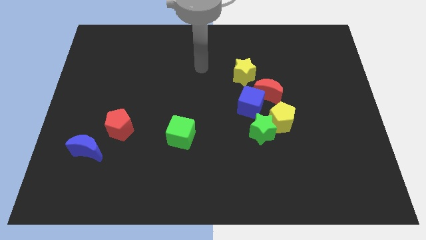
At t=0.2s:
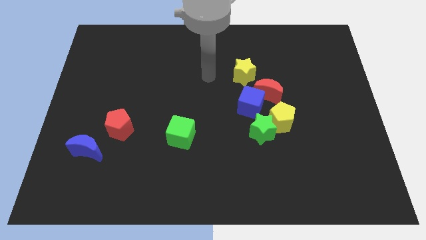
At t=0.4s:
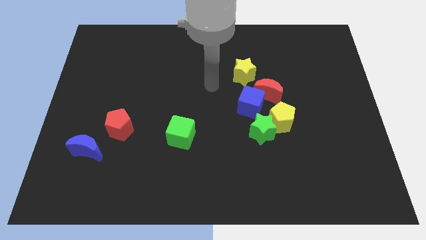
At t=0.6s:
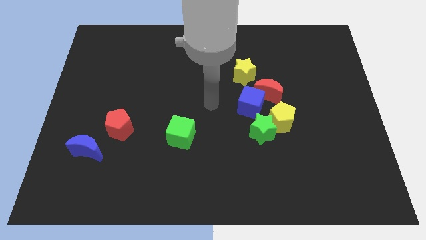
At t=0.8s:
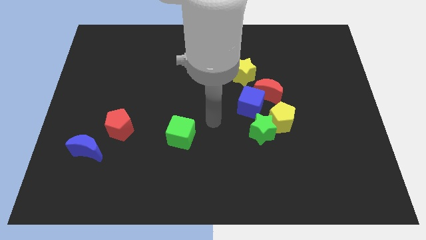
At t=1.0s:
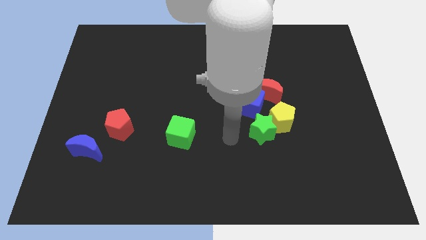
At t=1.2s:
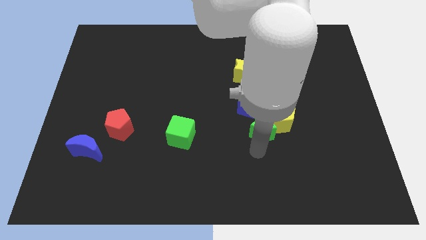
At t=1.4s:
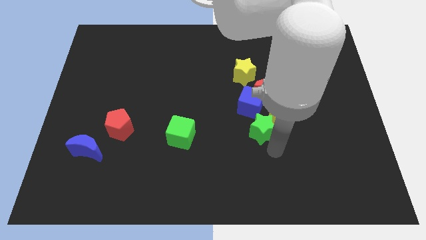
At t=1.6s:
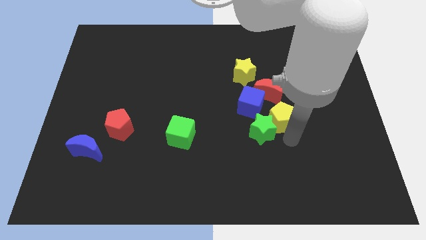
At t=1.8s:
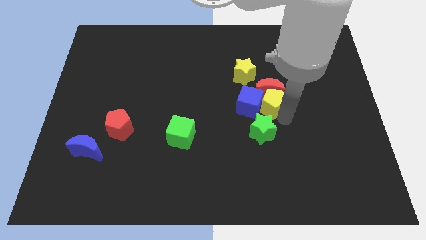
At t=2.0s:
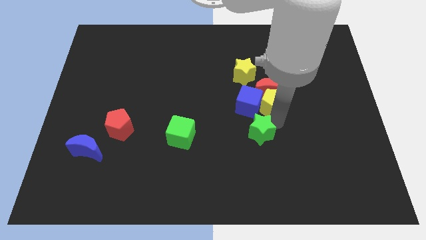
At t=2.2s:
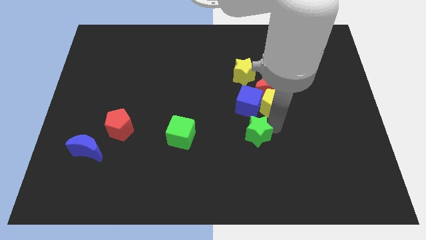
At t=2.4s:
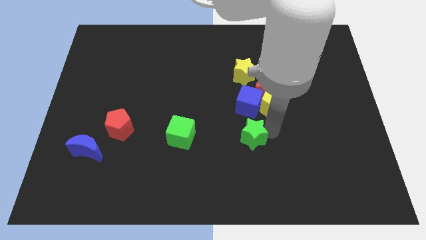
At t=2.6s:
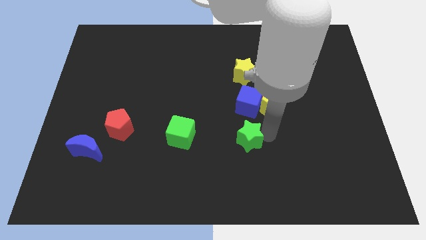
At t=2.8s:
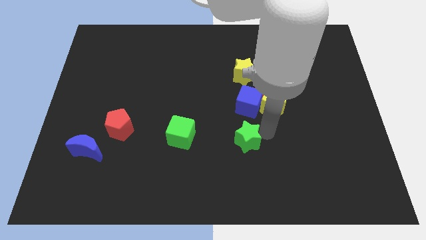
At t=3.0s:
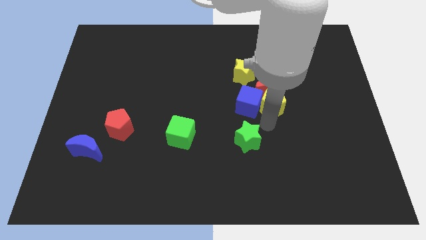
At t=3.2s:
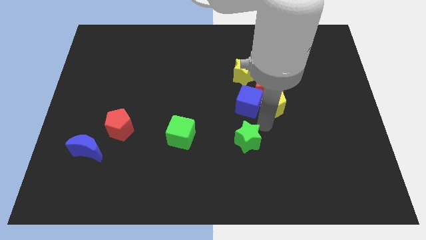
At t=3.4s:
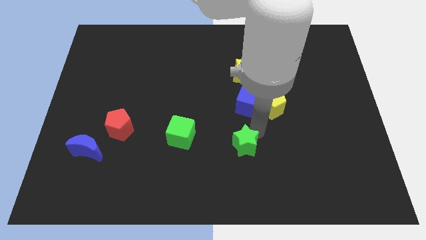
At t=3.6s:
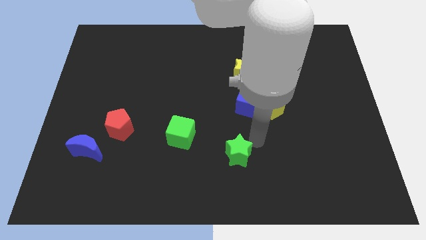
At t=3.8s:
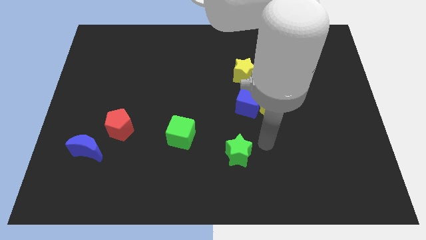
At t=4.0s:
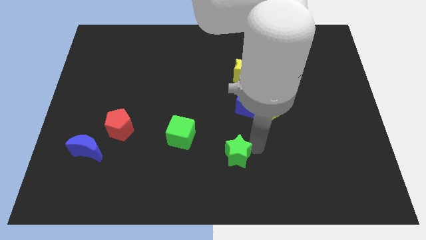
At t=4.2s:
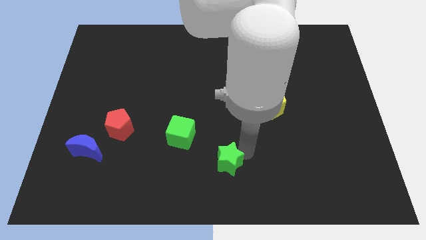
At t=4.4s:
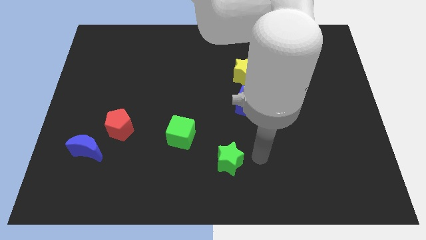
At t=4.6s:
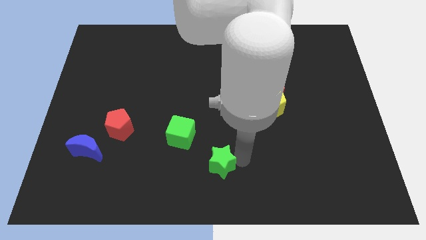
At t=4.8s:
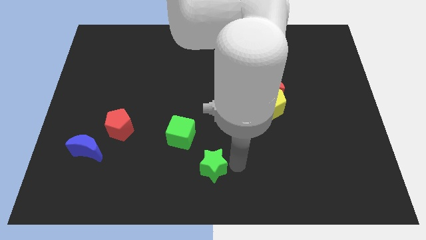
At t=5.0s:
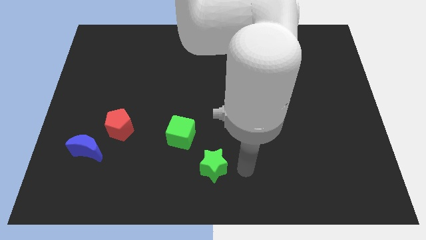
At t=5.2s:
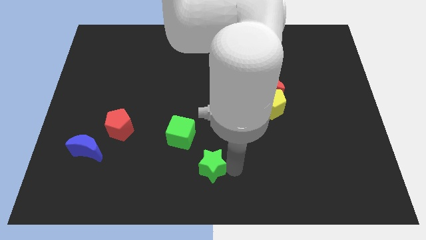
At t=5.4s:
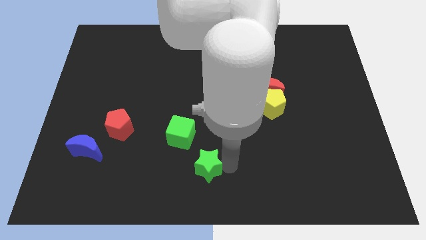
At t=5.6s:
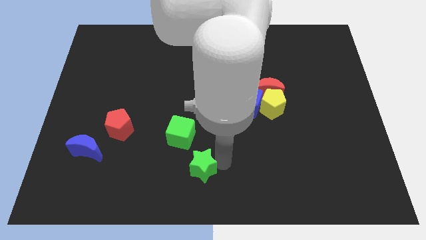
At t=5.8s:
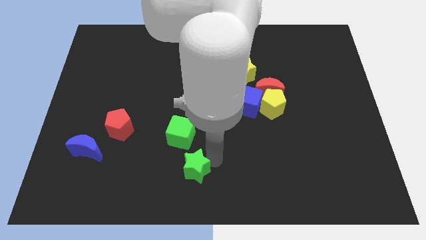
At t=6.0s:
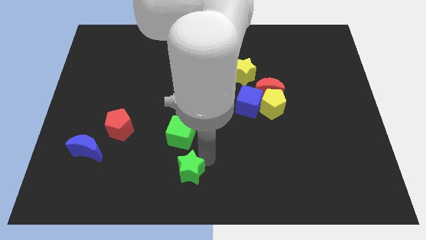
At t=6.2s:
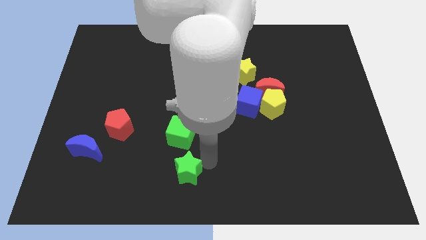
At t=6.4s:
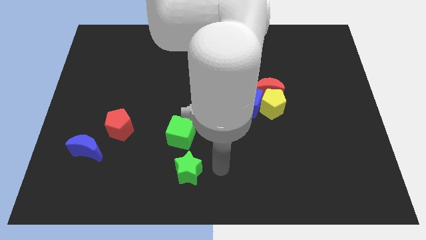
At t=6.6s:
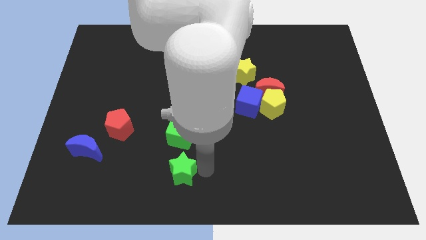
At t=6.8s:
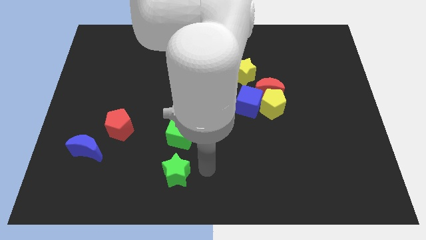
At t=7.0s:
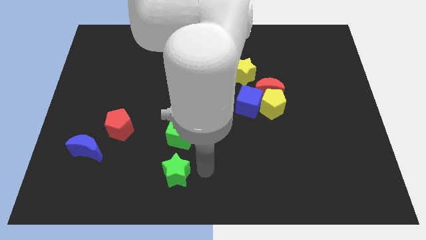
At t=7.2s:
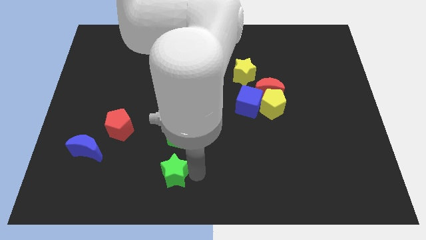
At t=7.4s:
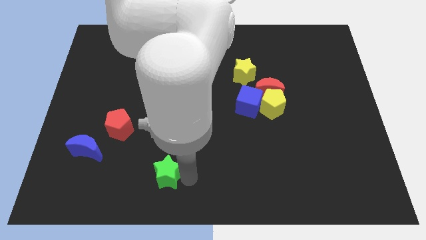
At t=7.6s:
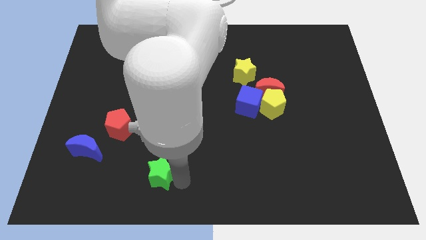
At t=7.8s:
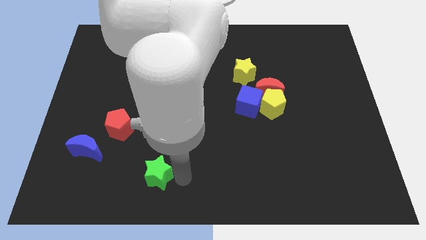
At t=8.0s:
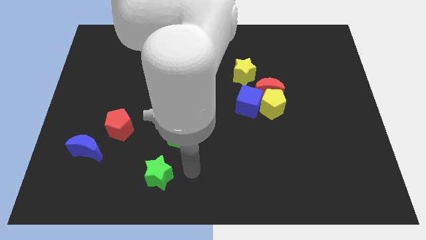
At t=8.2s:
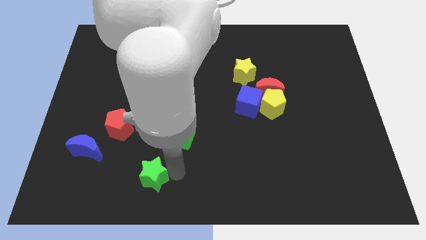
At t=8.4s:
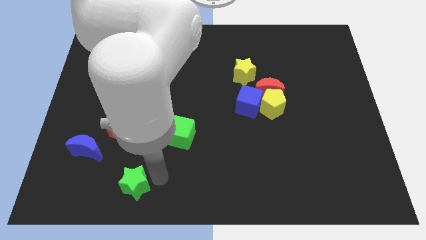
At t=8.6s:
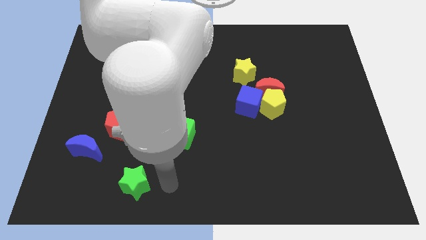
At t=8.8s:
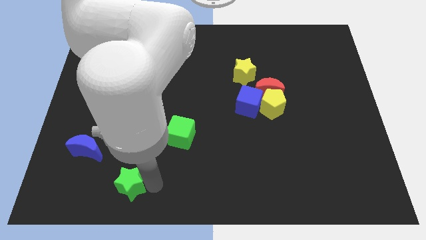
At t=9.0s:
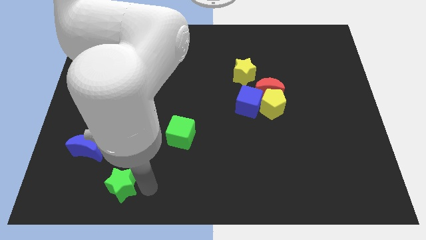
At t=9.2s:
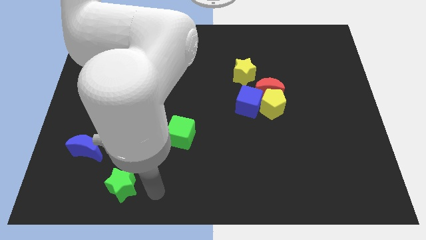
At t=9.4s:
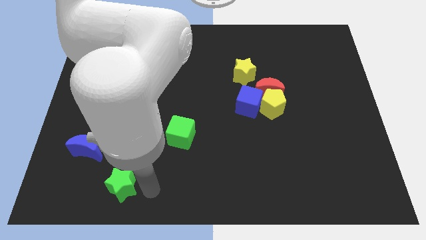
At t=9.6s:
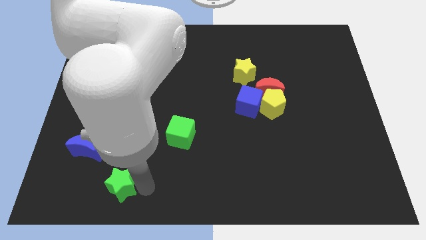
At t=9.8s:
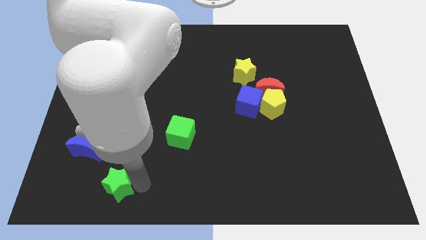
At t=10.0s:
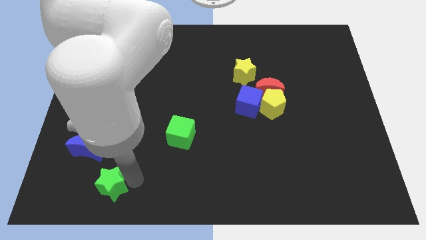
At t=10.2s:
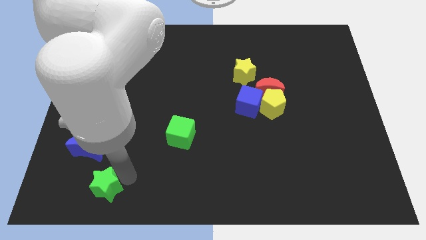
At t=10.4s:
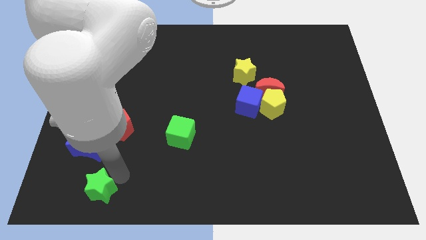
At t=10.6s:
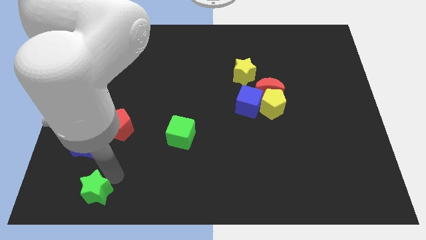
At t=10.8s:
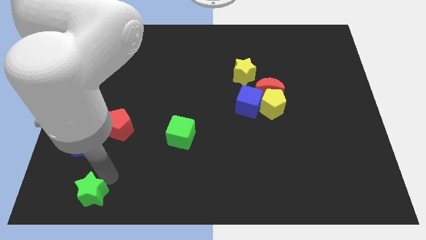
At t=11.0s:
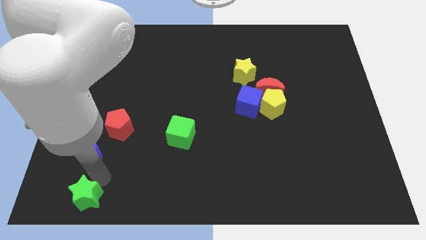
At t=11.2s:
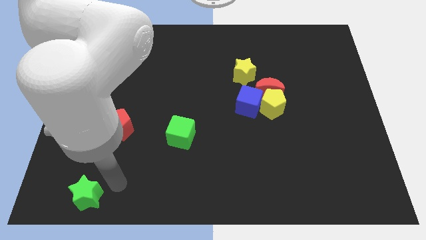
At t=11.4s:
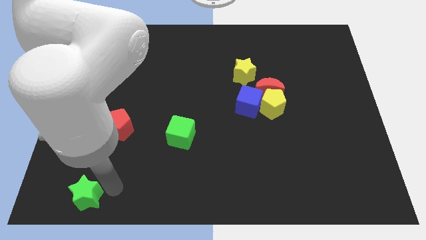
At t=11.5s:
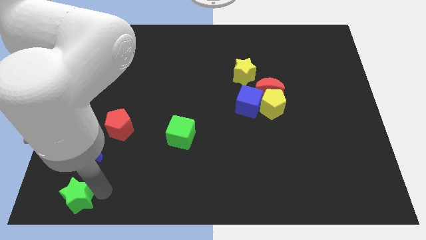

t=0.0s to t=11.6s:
move the green star to the bottom left of the board
